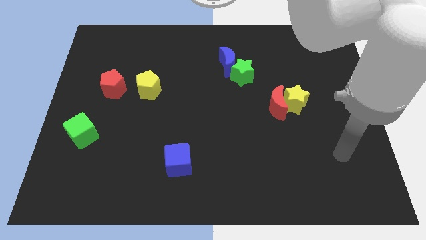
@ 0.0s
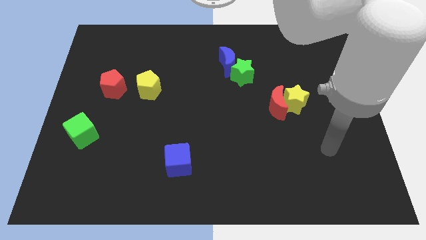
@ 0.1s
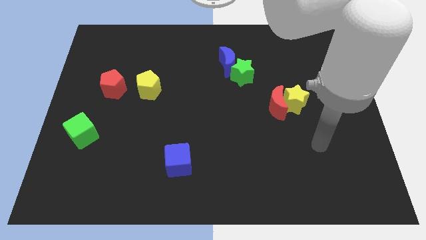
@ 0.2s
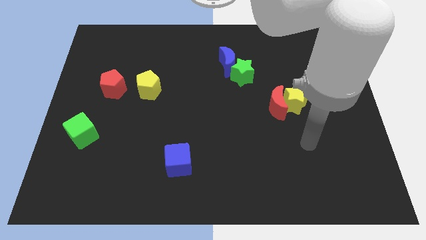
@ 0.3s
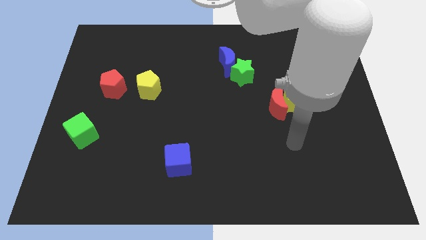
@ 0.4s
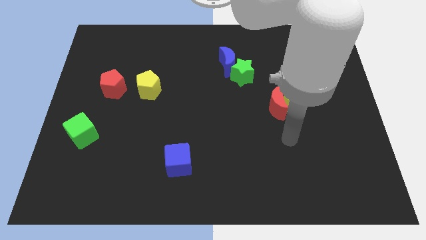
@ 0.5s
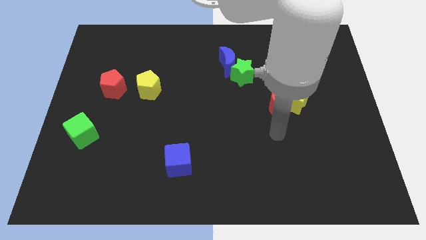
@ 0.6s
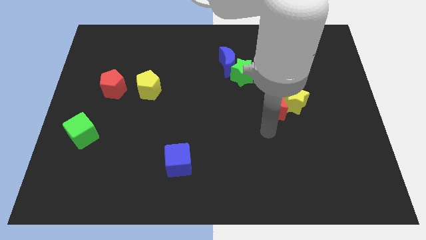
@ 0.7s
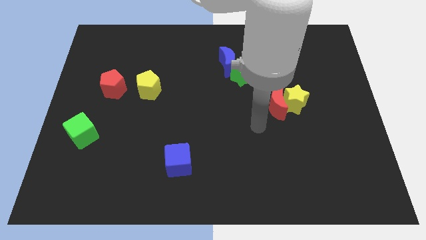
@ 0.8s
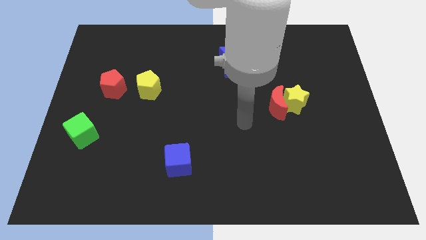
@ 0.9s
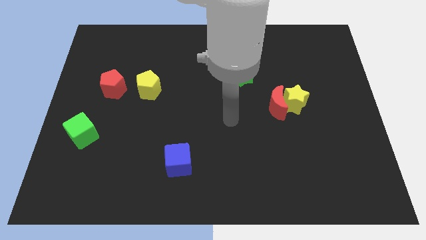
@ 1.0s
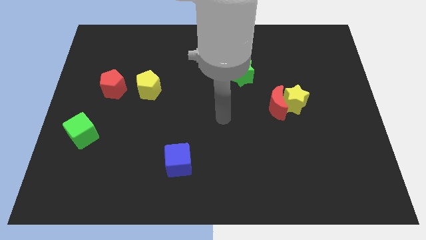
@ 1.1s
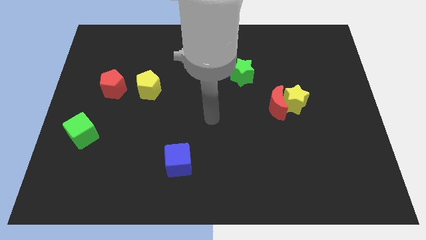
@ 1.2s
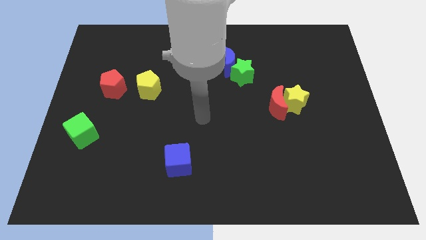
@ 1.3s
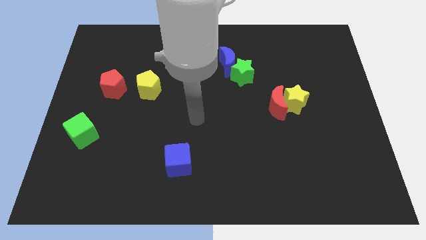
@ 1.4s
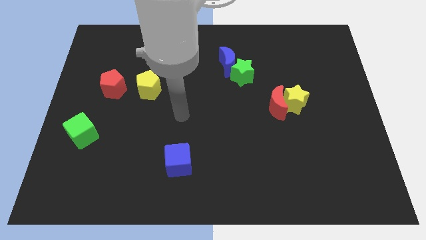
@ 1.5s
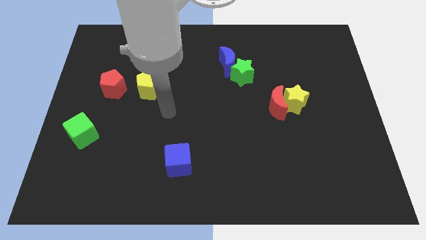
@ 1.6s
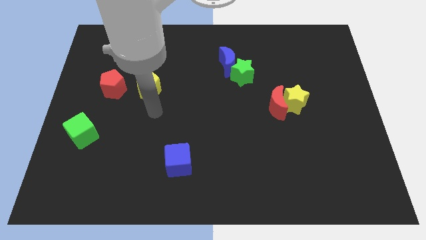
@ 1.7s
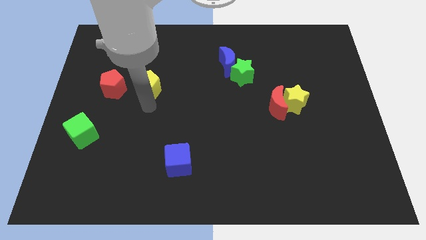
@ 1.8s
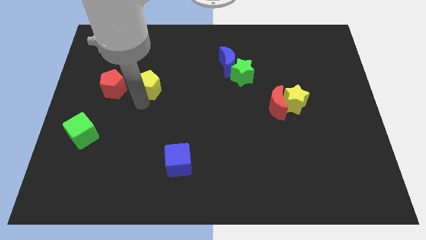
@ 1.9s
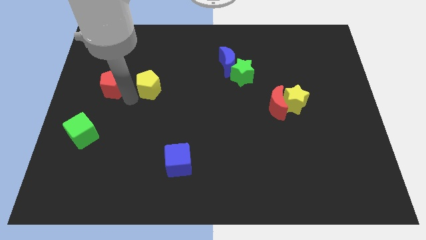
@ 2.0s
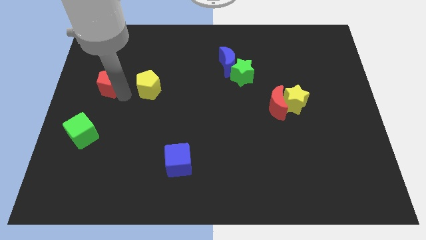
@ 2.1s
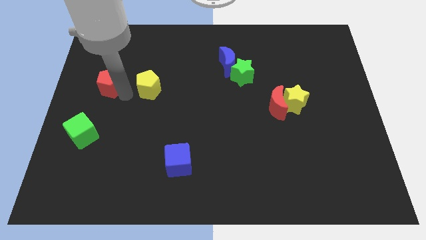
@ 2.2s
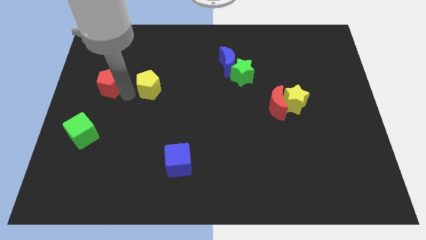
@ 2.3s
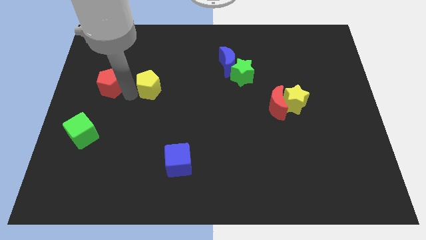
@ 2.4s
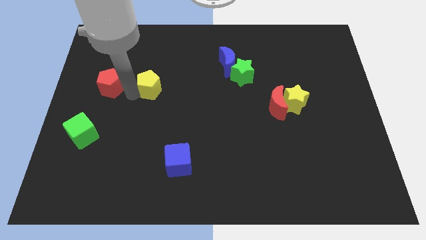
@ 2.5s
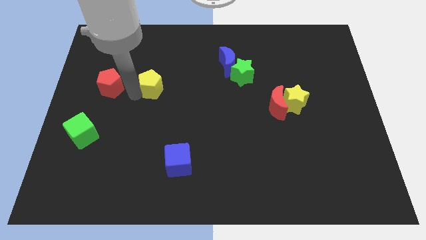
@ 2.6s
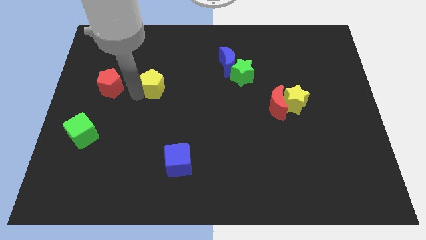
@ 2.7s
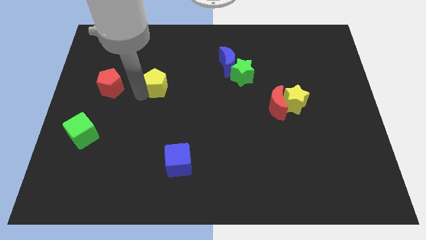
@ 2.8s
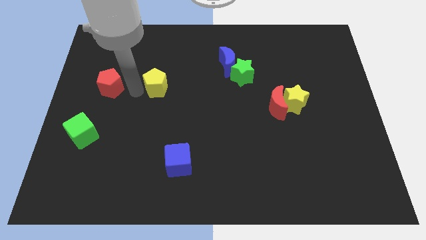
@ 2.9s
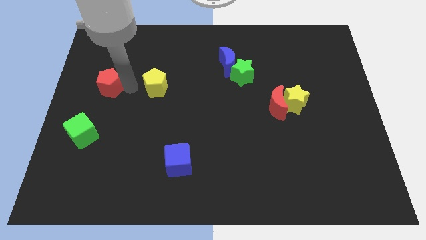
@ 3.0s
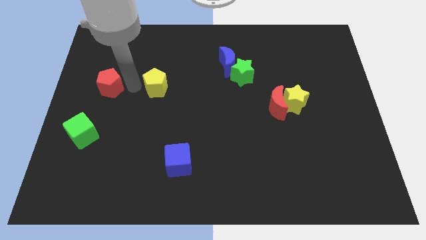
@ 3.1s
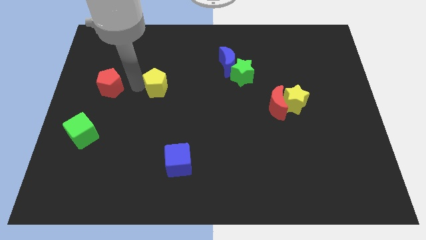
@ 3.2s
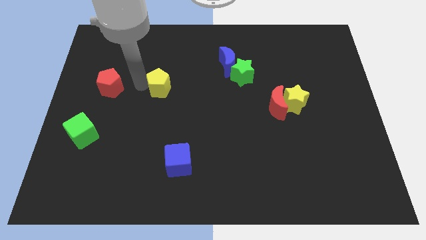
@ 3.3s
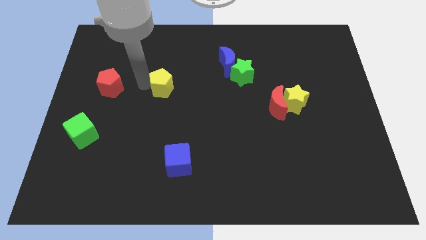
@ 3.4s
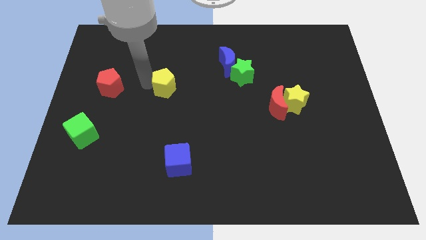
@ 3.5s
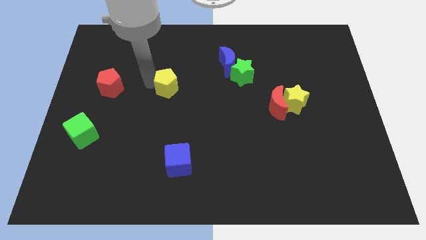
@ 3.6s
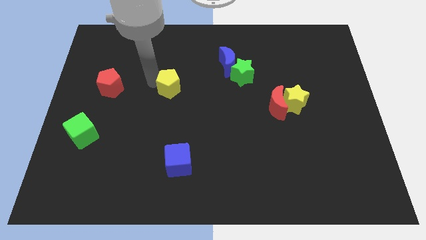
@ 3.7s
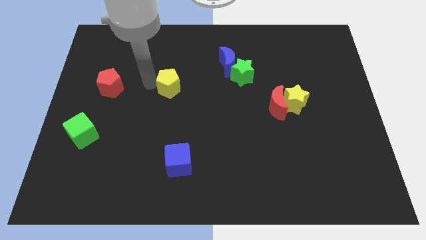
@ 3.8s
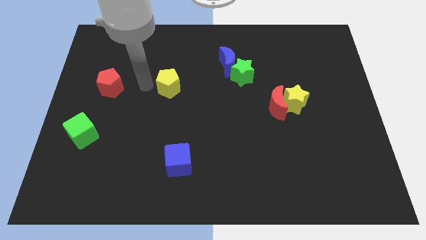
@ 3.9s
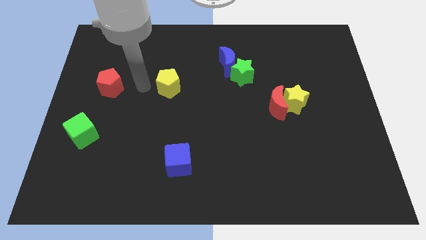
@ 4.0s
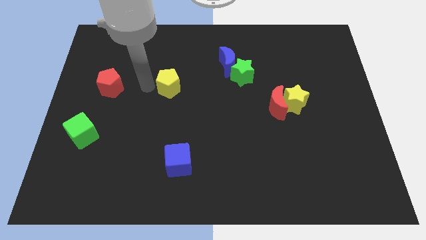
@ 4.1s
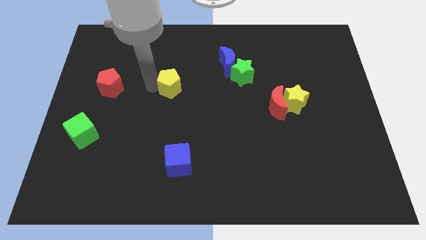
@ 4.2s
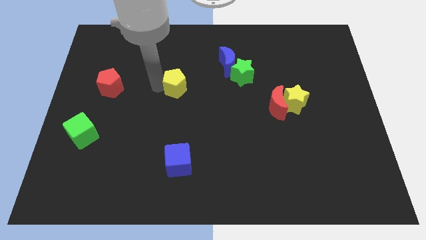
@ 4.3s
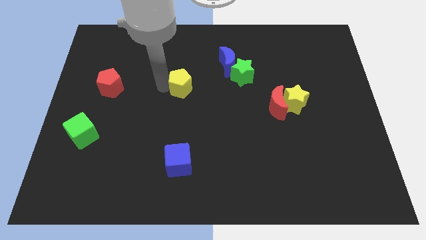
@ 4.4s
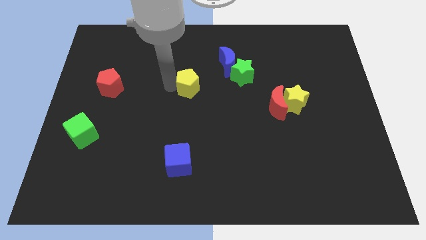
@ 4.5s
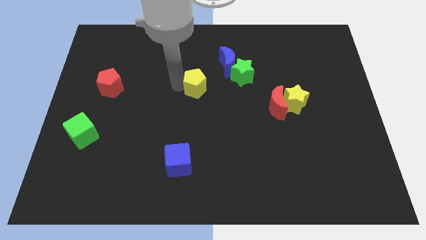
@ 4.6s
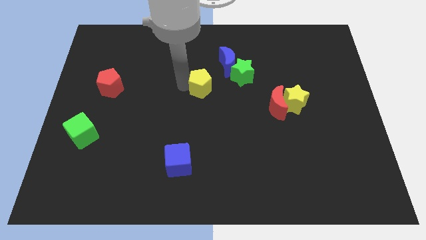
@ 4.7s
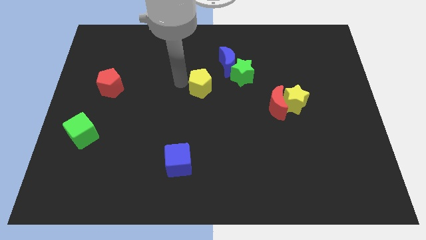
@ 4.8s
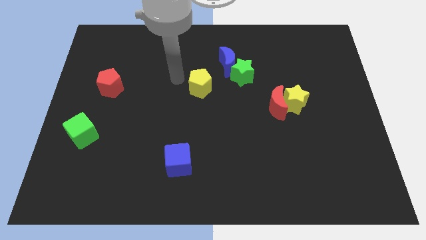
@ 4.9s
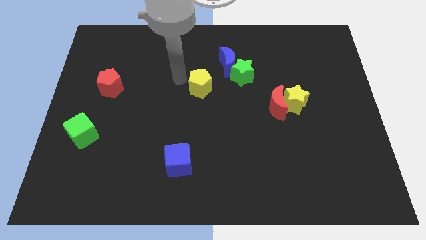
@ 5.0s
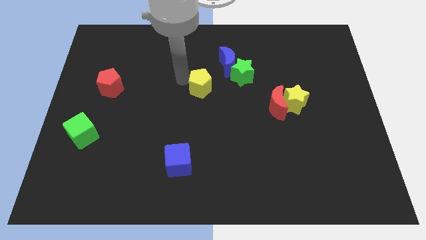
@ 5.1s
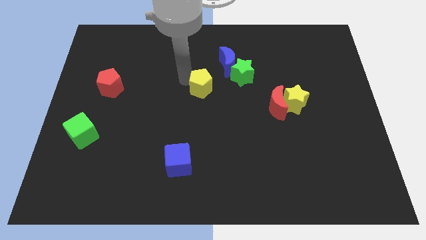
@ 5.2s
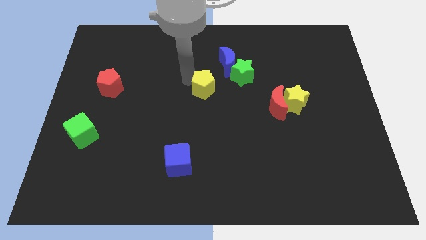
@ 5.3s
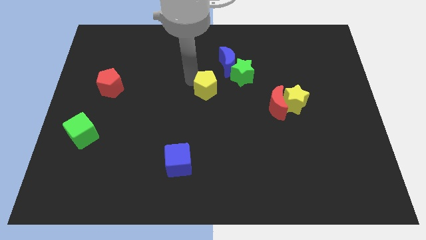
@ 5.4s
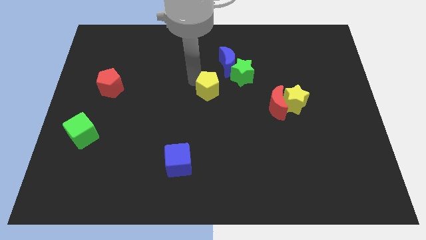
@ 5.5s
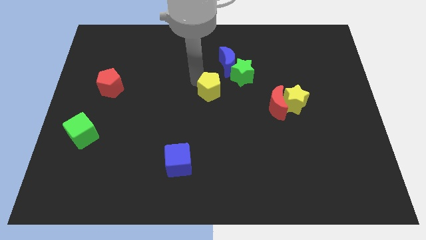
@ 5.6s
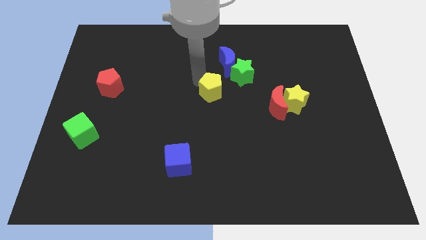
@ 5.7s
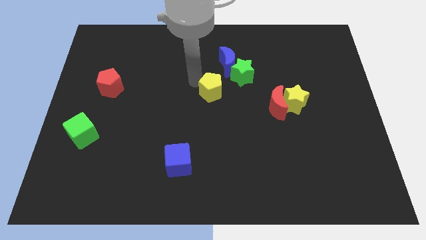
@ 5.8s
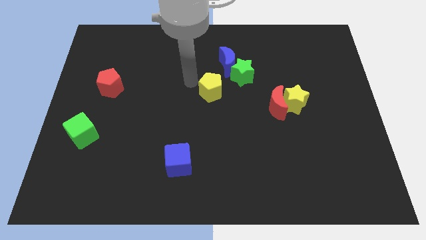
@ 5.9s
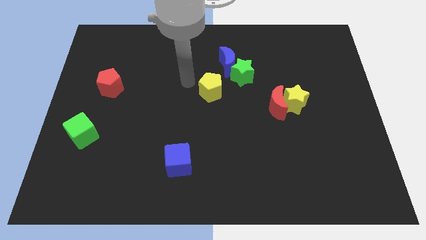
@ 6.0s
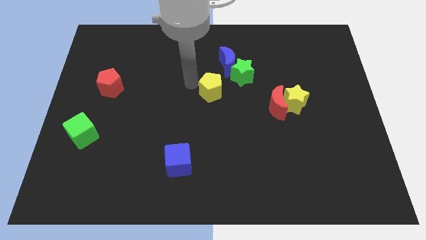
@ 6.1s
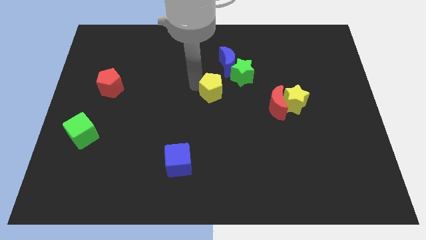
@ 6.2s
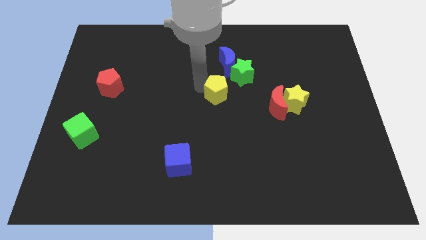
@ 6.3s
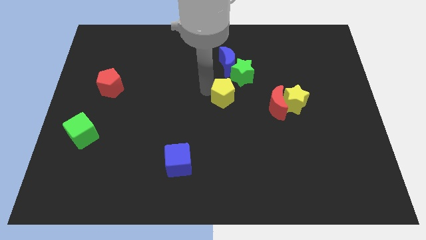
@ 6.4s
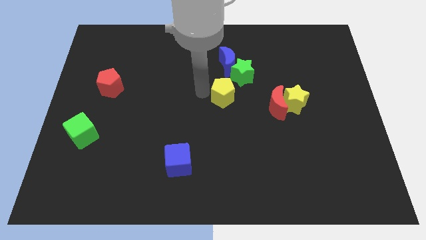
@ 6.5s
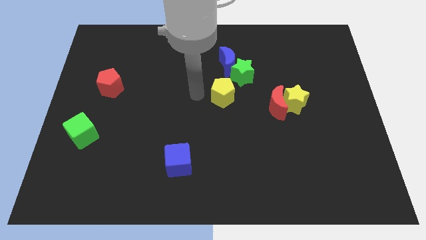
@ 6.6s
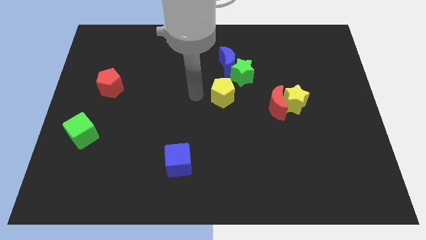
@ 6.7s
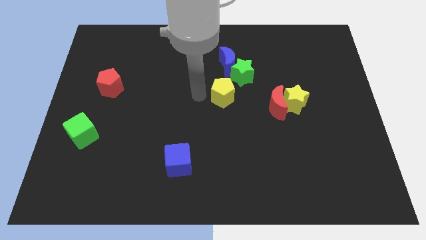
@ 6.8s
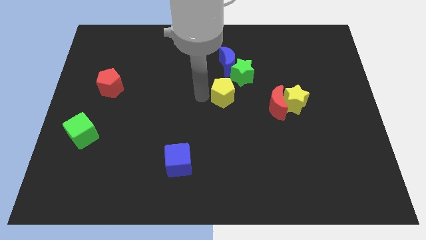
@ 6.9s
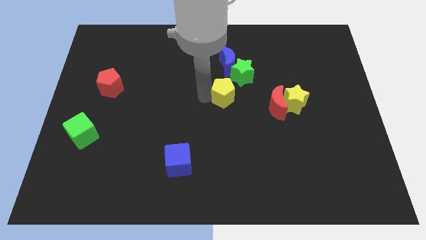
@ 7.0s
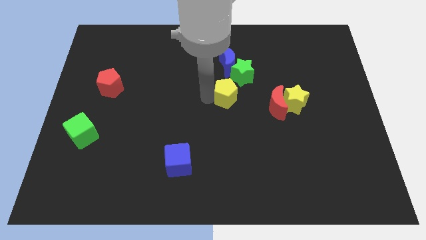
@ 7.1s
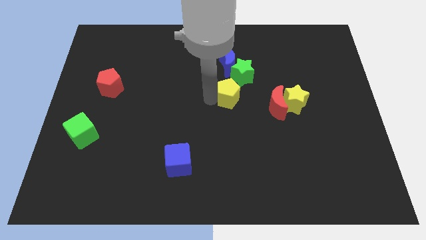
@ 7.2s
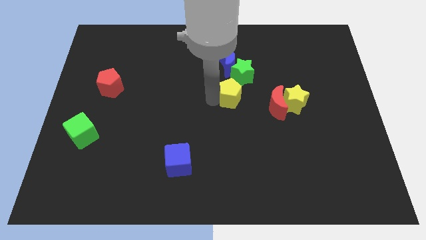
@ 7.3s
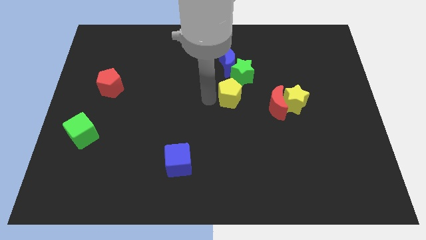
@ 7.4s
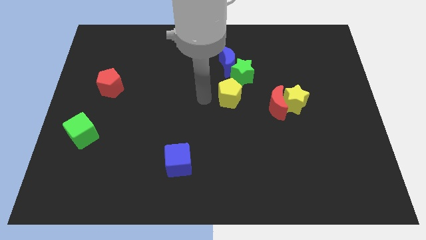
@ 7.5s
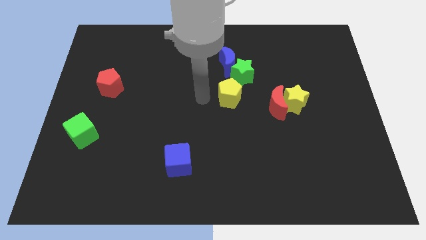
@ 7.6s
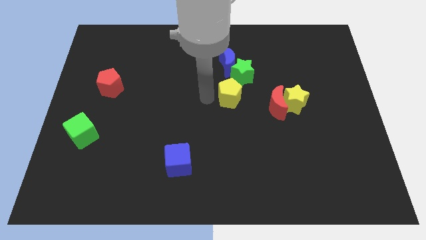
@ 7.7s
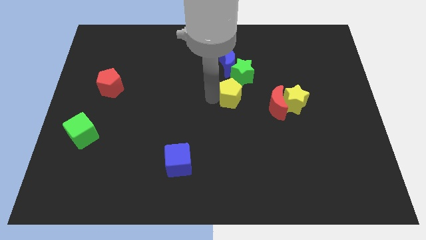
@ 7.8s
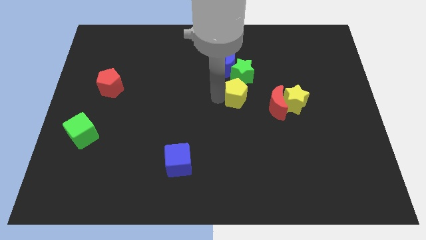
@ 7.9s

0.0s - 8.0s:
move the yellow pentagon to the right
